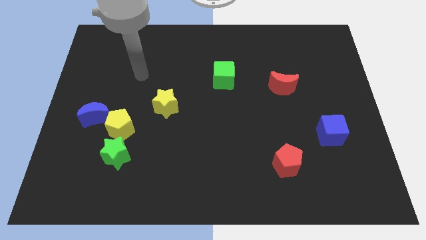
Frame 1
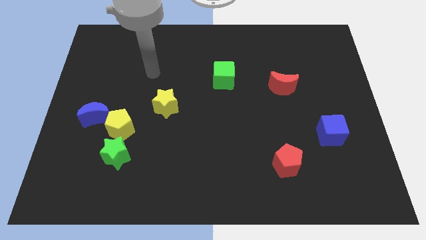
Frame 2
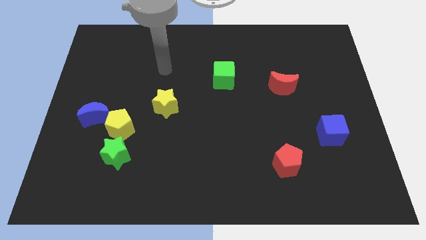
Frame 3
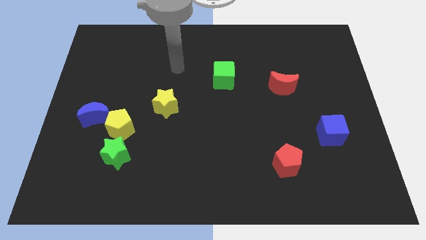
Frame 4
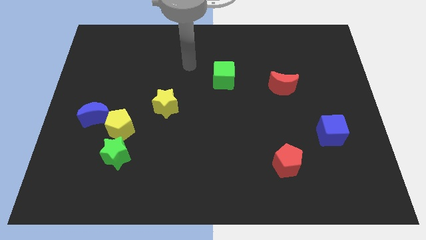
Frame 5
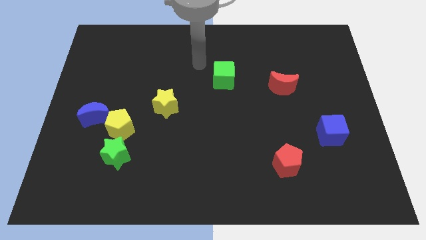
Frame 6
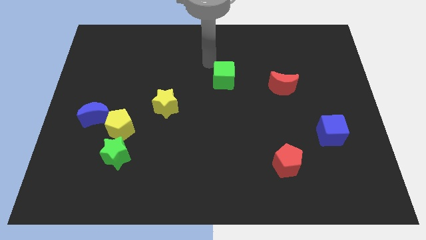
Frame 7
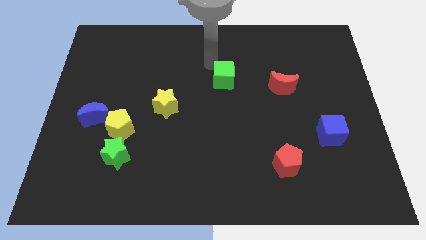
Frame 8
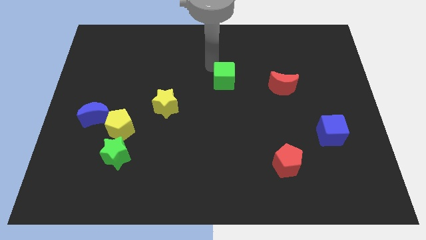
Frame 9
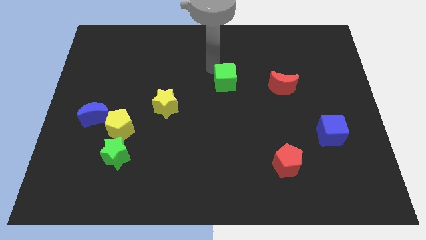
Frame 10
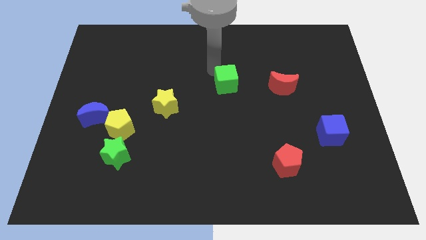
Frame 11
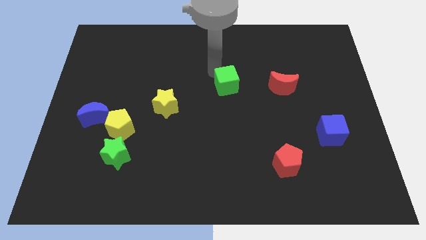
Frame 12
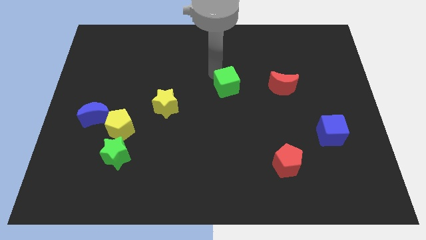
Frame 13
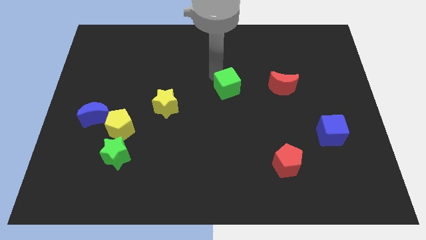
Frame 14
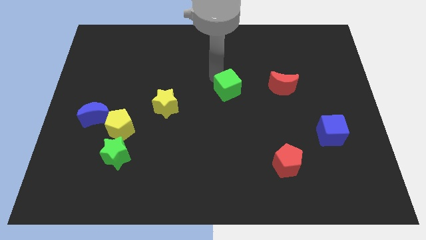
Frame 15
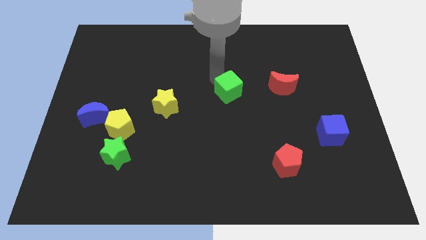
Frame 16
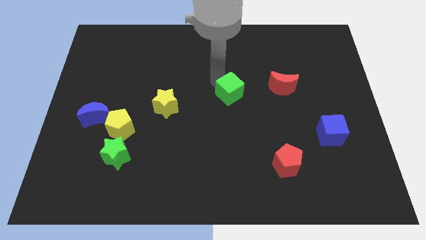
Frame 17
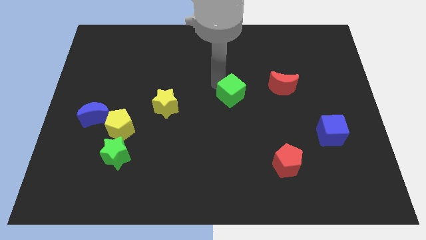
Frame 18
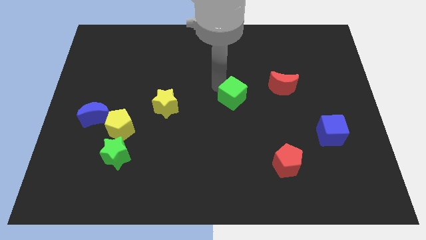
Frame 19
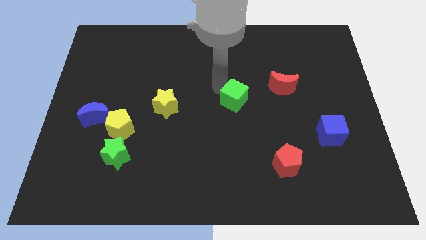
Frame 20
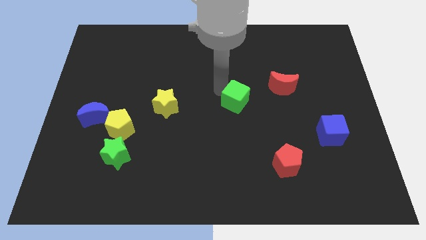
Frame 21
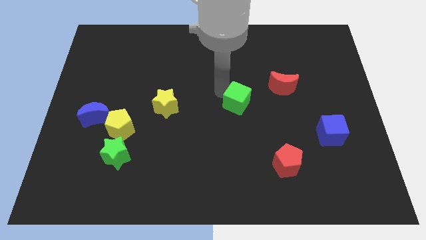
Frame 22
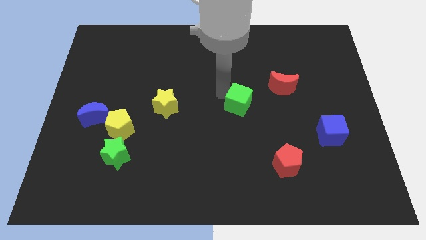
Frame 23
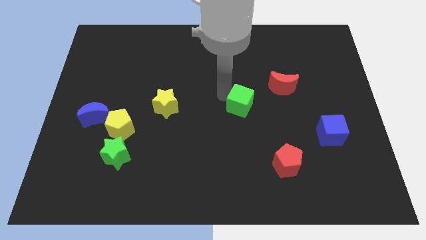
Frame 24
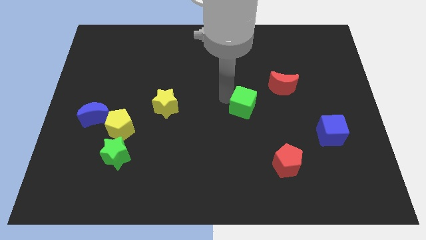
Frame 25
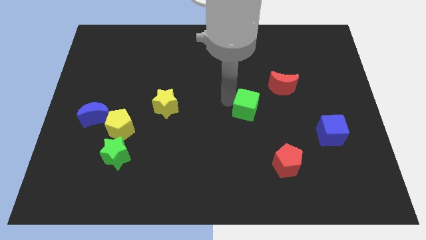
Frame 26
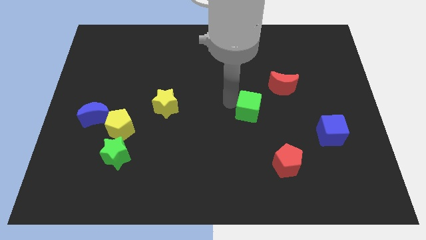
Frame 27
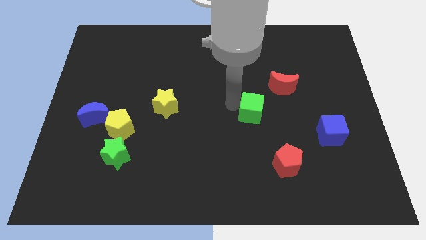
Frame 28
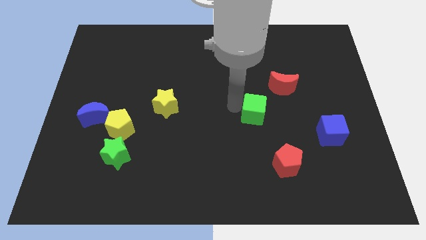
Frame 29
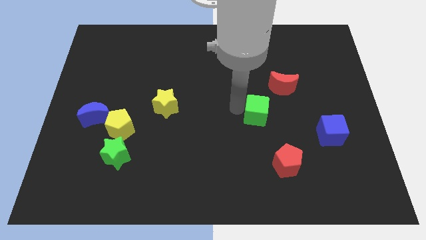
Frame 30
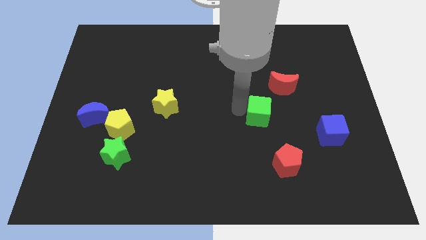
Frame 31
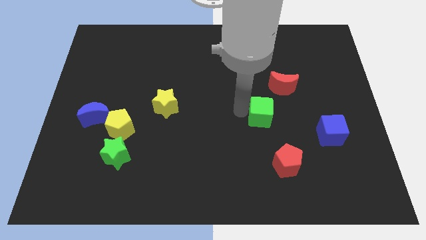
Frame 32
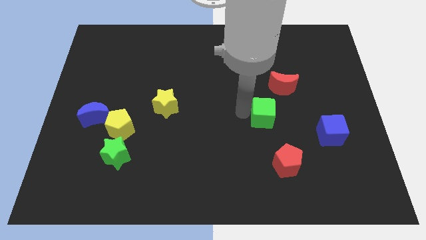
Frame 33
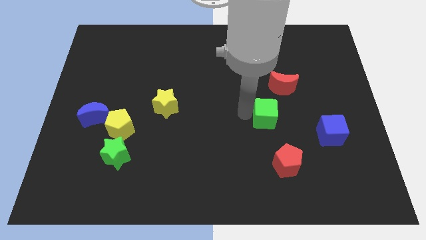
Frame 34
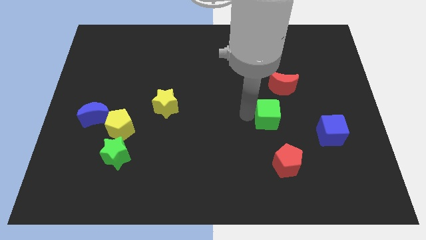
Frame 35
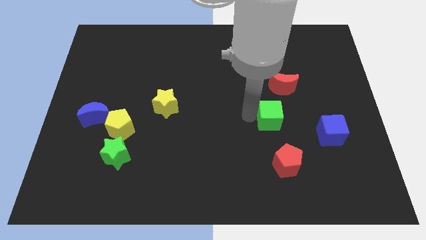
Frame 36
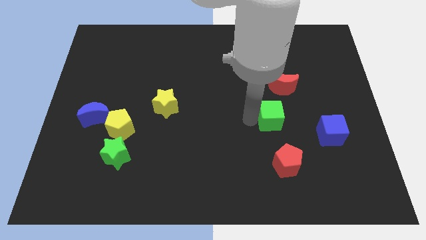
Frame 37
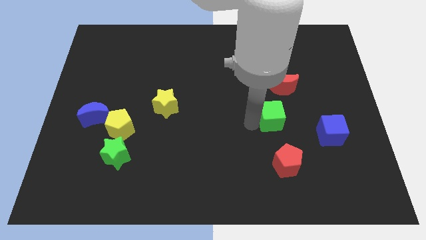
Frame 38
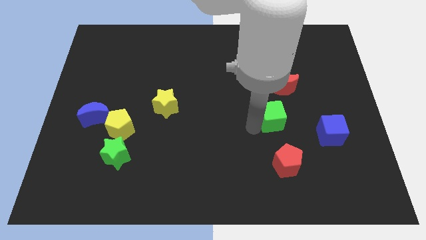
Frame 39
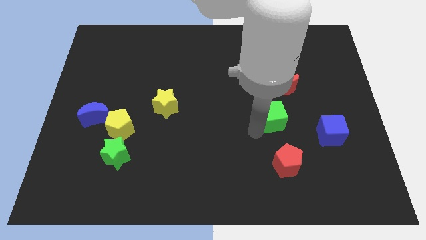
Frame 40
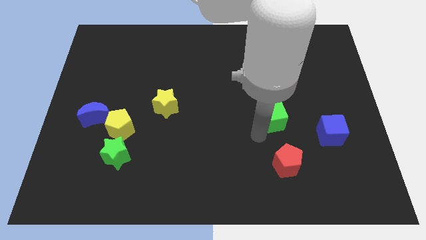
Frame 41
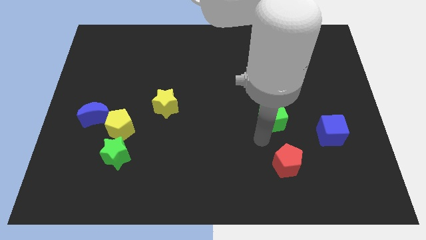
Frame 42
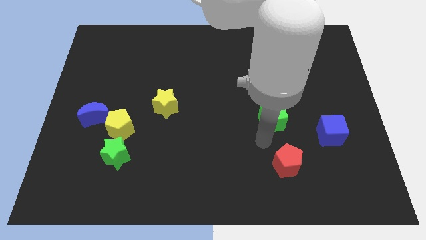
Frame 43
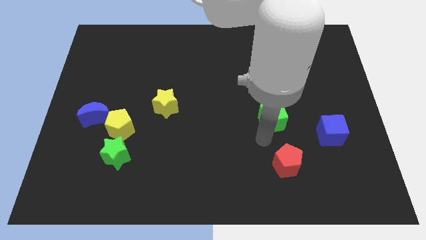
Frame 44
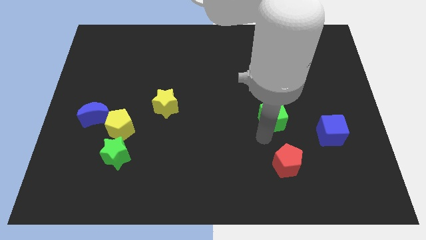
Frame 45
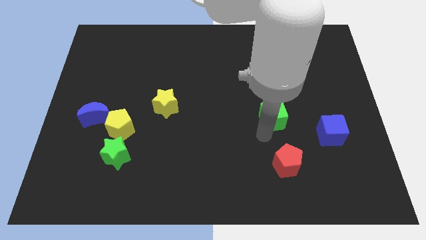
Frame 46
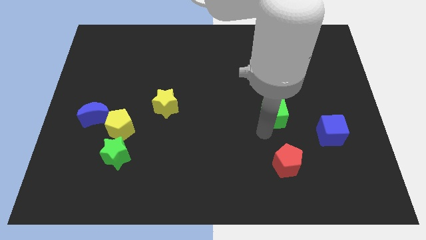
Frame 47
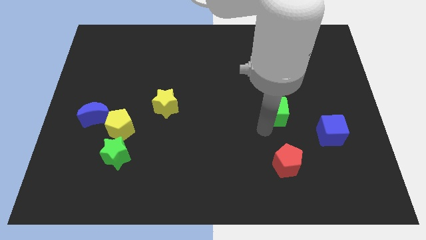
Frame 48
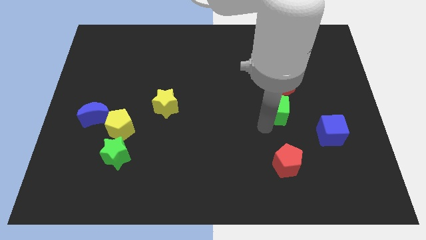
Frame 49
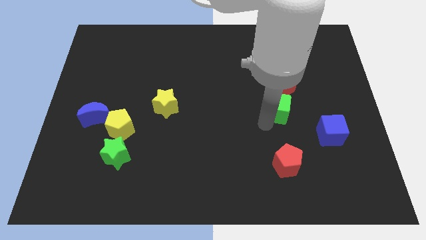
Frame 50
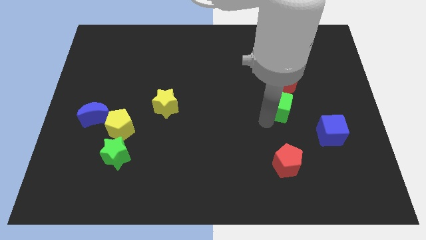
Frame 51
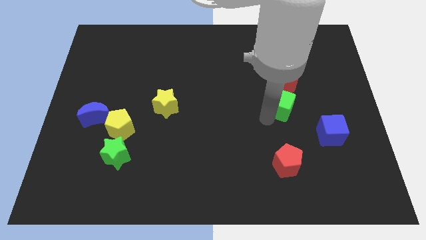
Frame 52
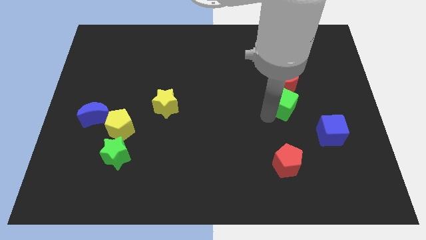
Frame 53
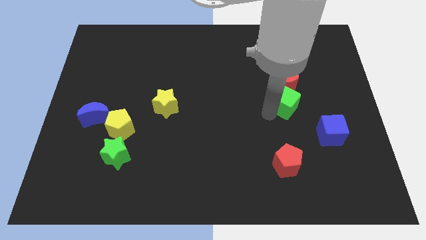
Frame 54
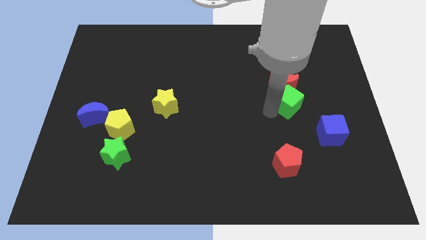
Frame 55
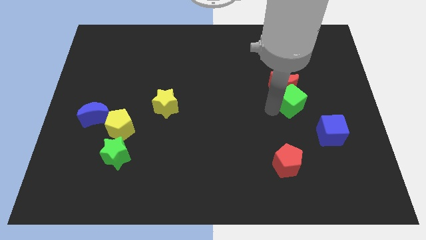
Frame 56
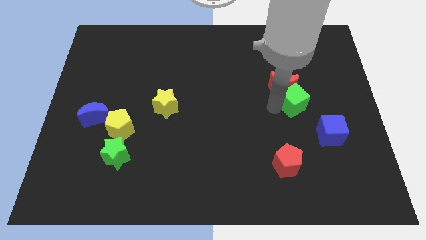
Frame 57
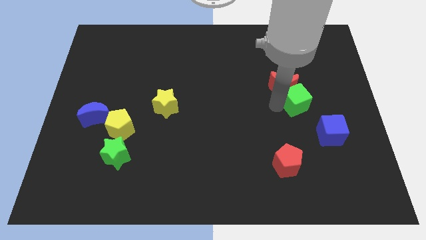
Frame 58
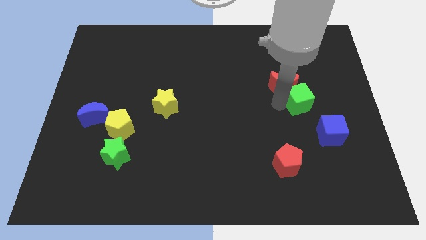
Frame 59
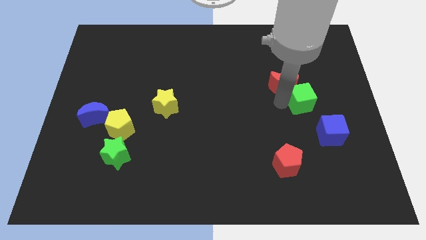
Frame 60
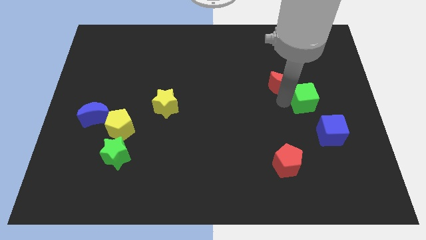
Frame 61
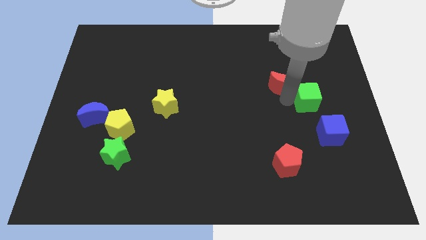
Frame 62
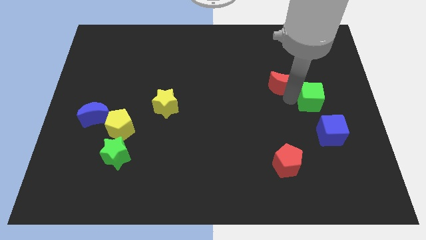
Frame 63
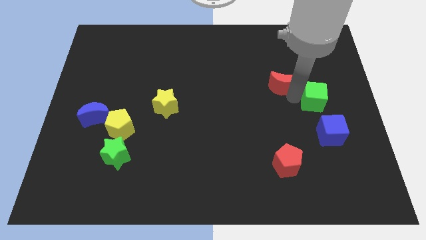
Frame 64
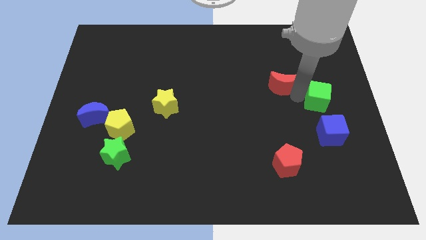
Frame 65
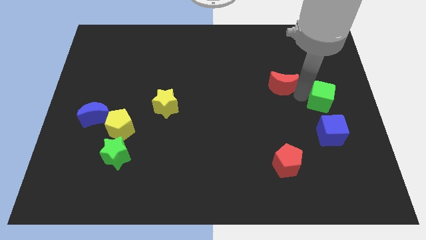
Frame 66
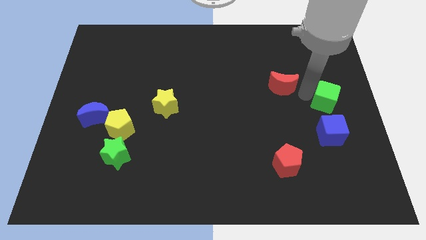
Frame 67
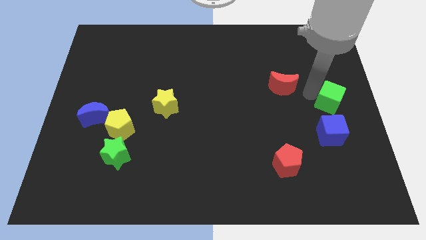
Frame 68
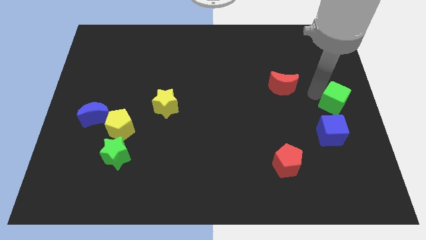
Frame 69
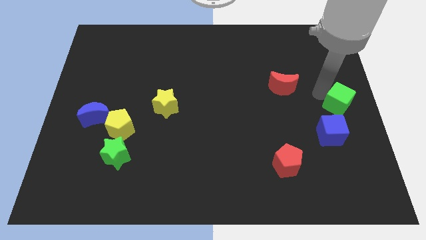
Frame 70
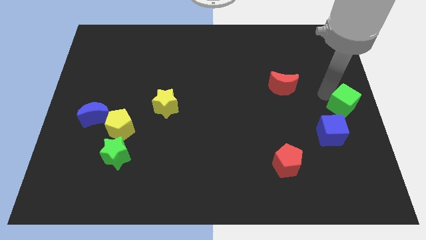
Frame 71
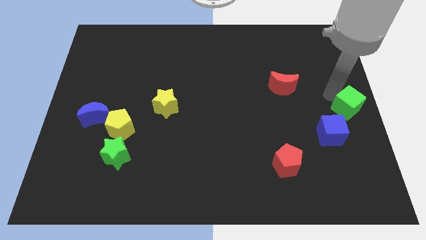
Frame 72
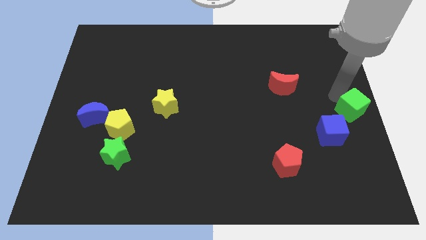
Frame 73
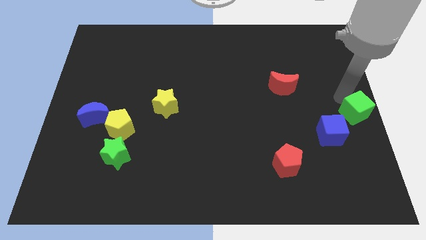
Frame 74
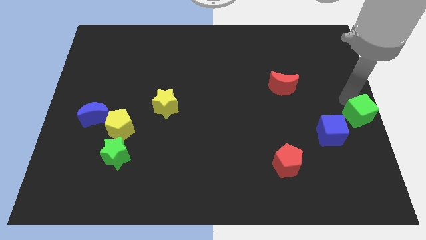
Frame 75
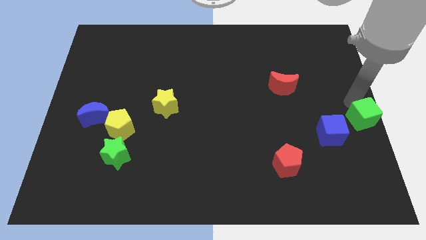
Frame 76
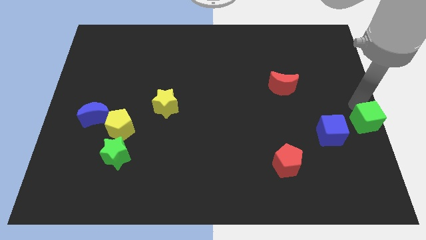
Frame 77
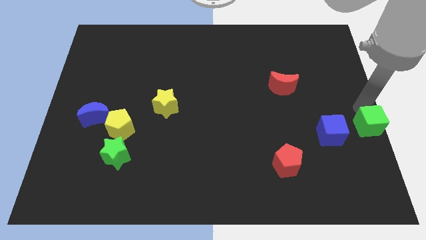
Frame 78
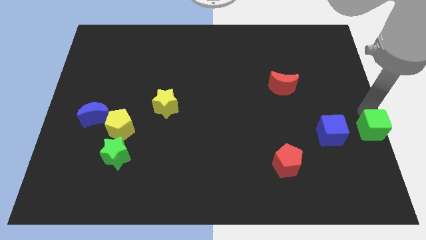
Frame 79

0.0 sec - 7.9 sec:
move the green cube downwards and right diagonally
